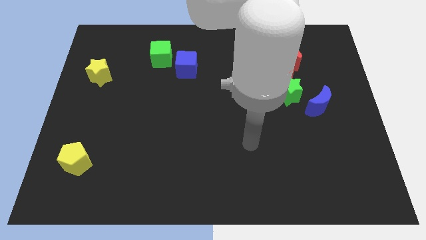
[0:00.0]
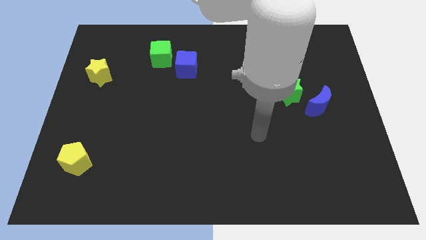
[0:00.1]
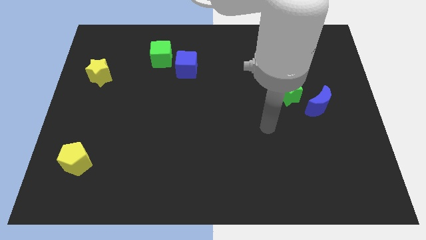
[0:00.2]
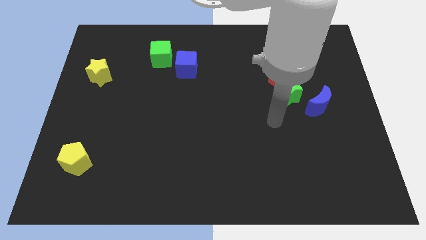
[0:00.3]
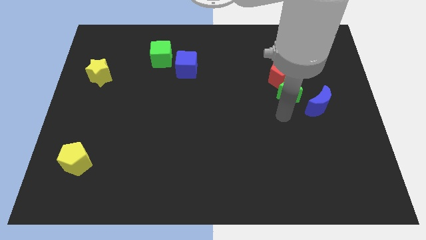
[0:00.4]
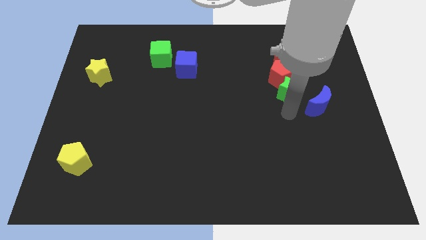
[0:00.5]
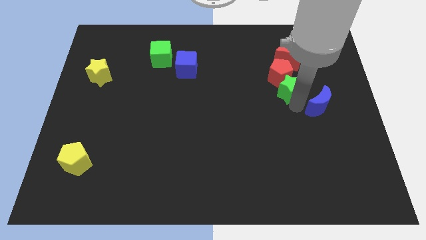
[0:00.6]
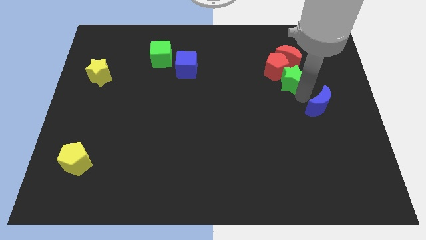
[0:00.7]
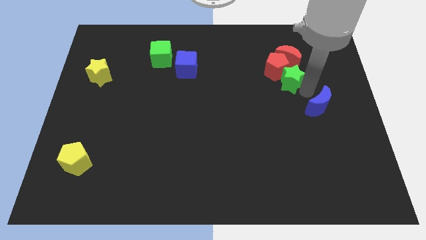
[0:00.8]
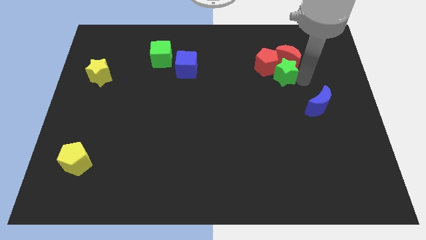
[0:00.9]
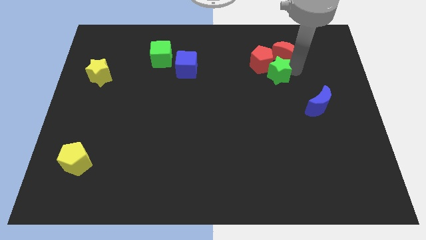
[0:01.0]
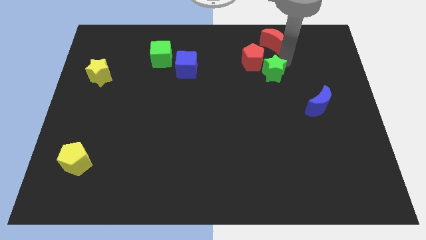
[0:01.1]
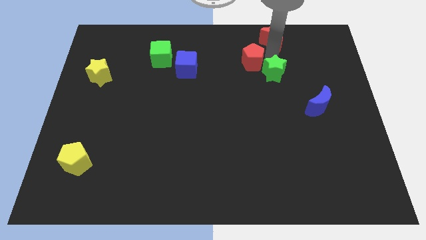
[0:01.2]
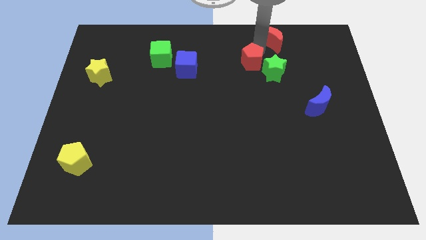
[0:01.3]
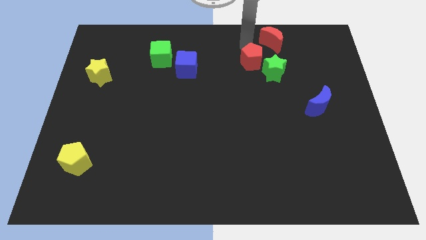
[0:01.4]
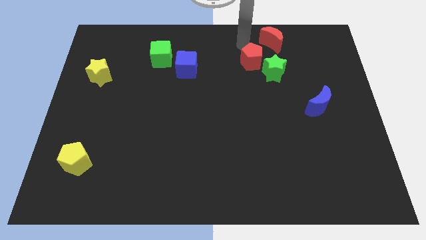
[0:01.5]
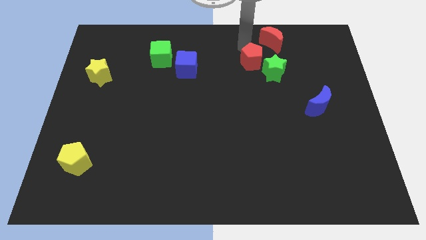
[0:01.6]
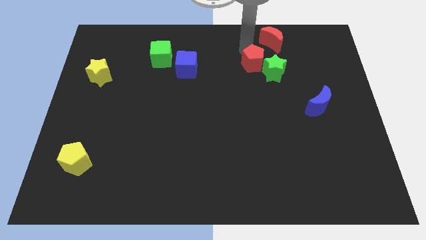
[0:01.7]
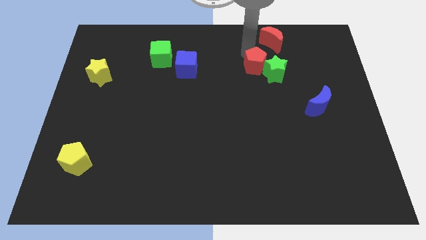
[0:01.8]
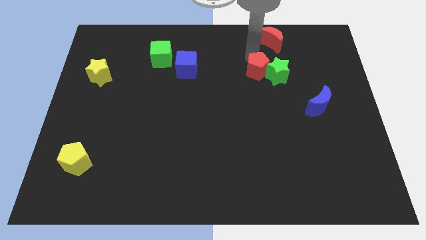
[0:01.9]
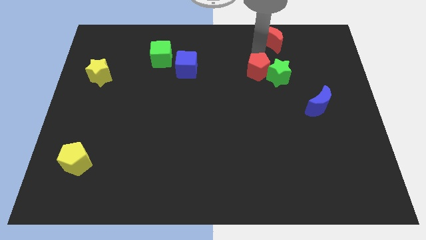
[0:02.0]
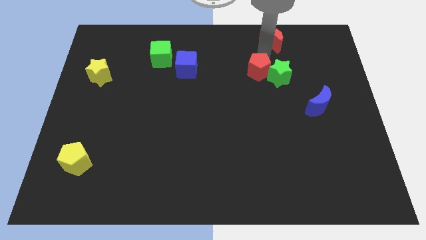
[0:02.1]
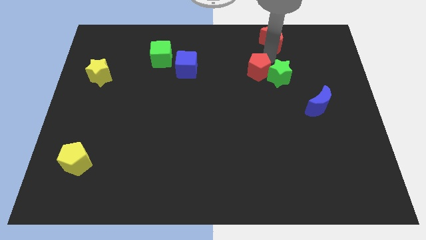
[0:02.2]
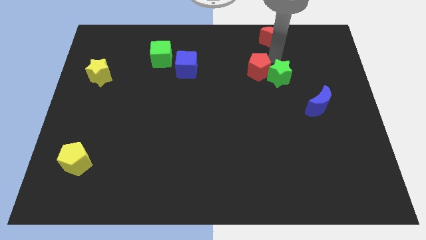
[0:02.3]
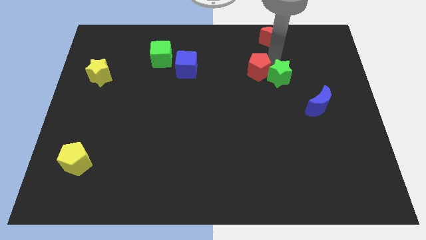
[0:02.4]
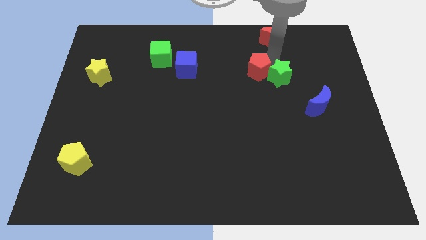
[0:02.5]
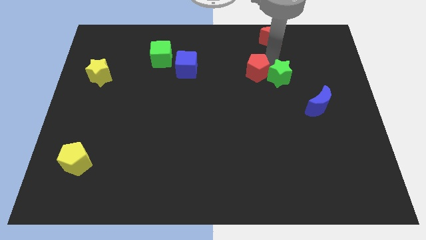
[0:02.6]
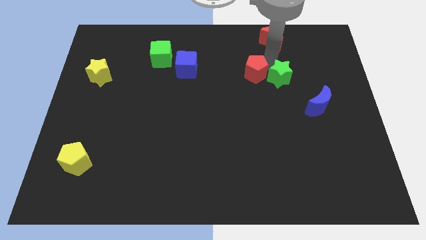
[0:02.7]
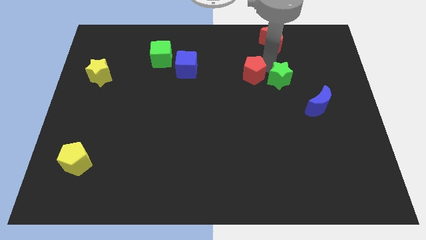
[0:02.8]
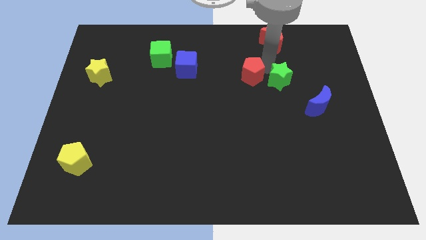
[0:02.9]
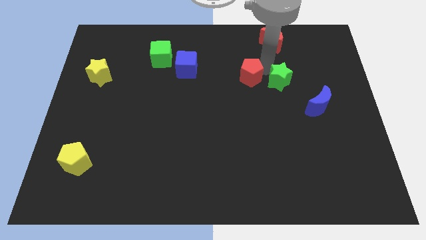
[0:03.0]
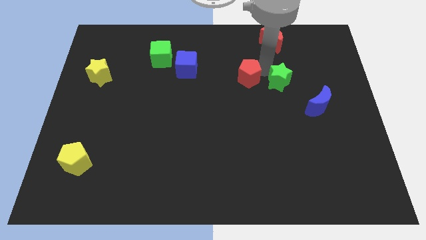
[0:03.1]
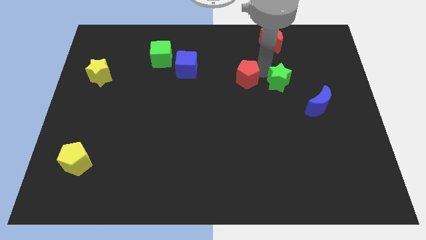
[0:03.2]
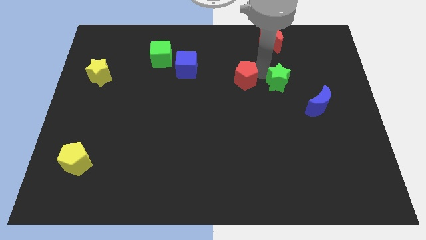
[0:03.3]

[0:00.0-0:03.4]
separate the red pentagon from the green star and red moon

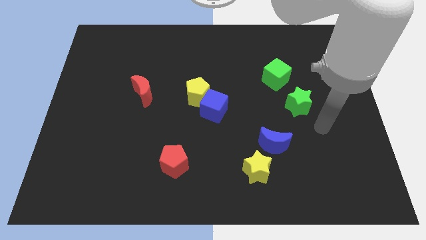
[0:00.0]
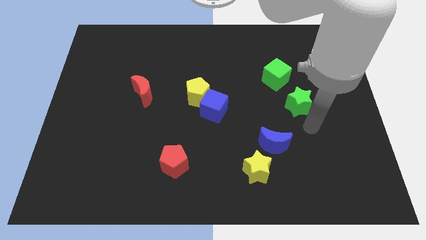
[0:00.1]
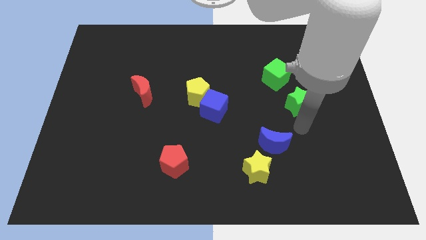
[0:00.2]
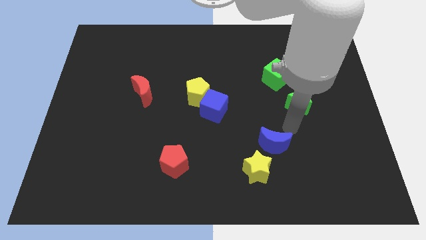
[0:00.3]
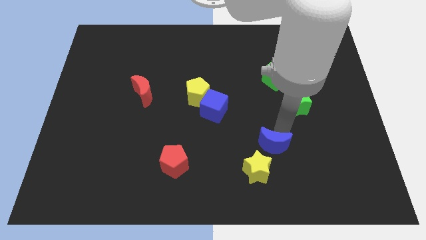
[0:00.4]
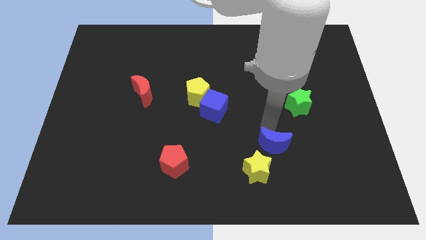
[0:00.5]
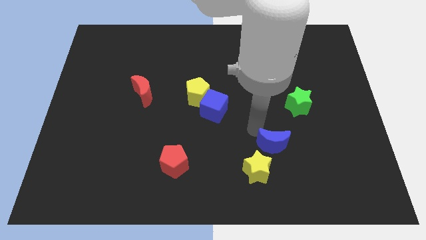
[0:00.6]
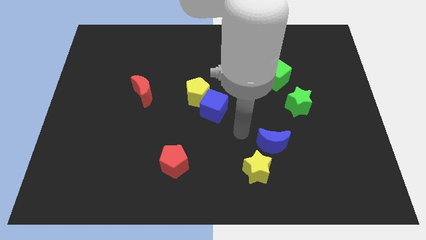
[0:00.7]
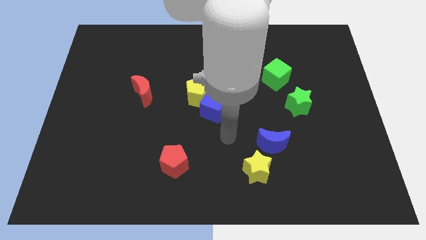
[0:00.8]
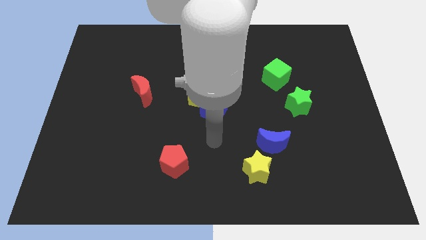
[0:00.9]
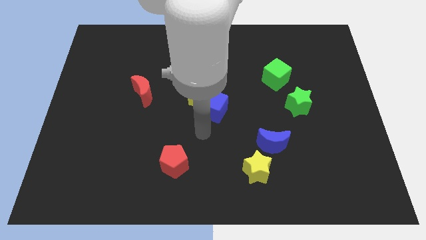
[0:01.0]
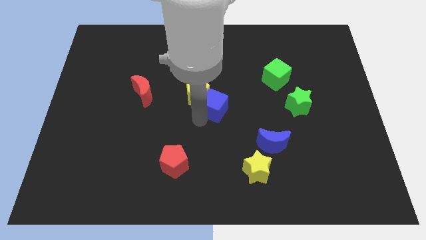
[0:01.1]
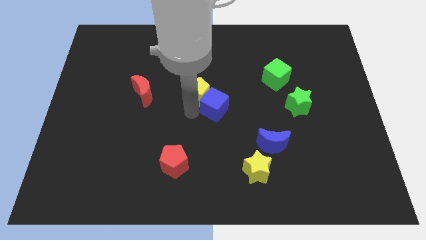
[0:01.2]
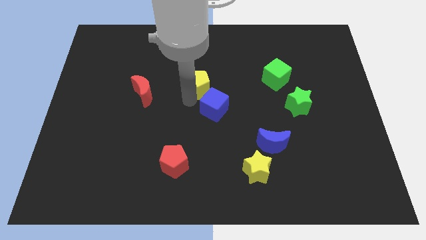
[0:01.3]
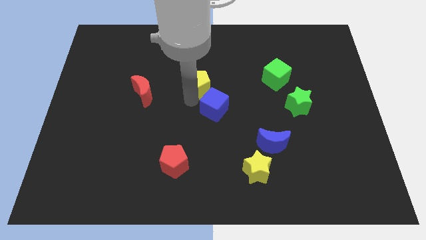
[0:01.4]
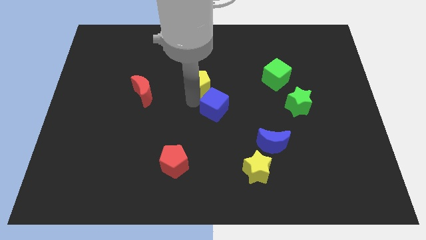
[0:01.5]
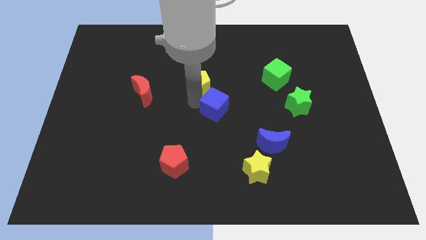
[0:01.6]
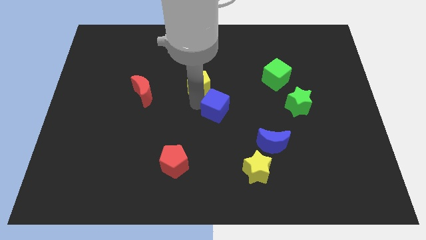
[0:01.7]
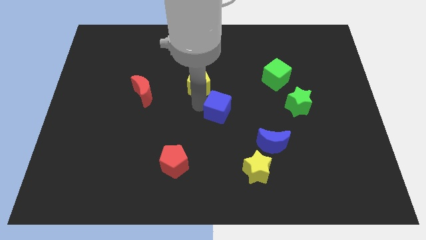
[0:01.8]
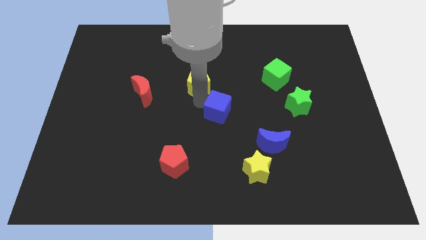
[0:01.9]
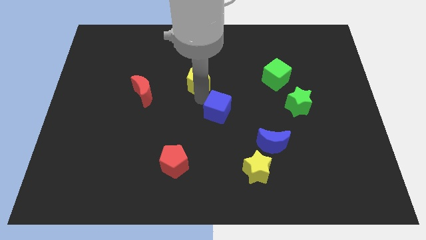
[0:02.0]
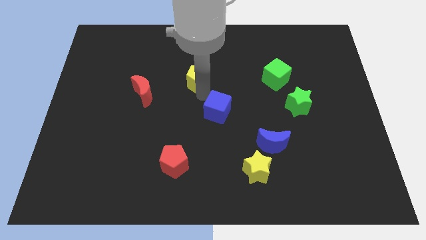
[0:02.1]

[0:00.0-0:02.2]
separate the blue cube from the yellow pentagon

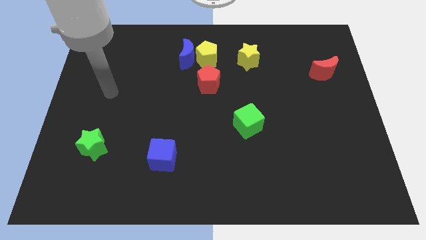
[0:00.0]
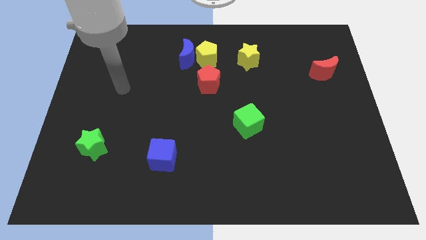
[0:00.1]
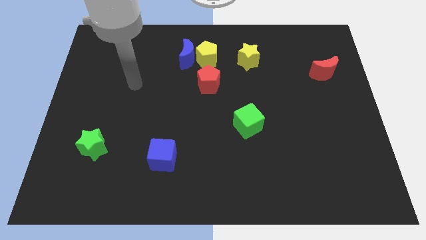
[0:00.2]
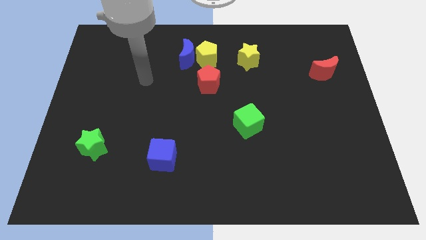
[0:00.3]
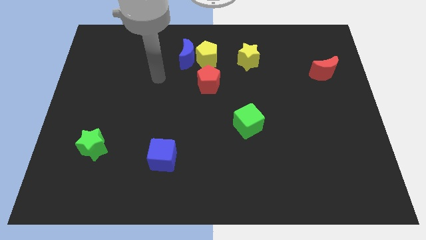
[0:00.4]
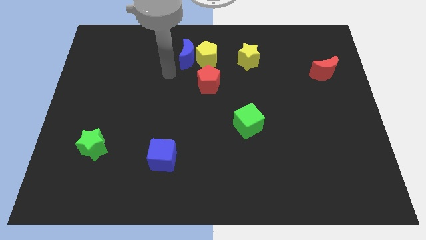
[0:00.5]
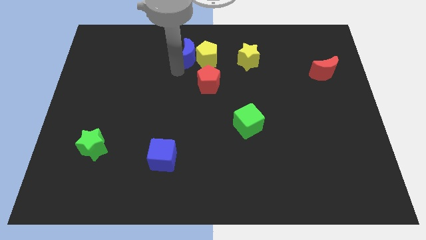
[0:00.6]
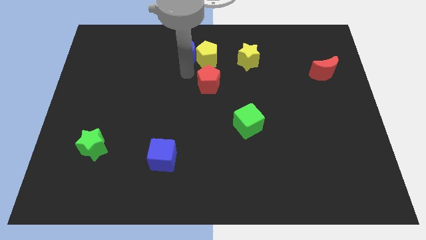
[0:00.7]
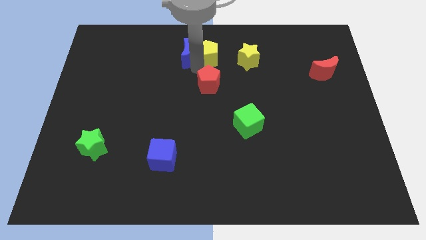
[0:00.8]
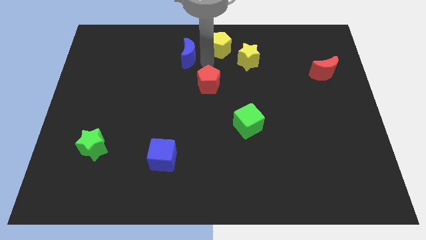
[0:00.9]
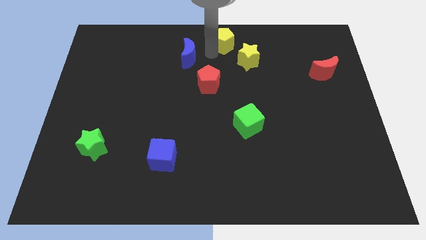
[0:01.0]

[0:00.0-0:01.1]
move the blue moon away from the yellow pentagon

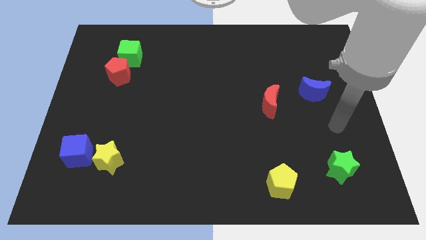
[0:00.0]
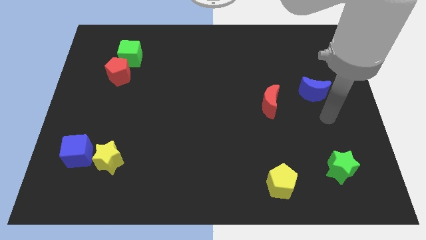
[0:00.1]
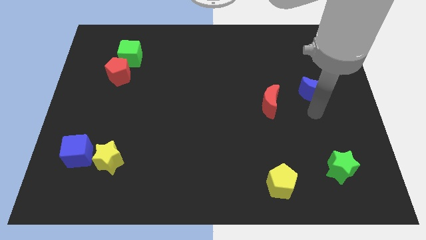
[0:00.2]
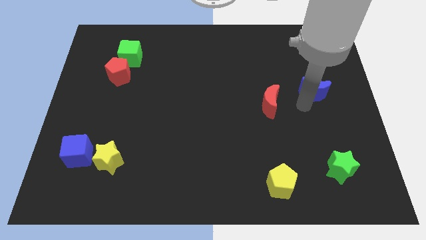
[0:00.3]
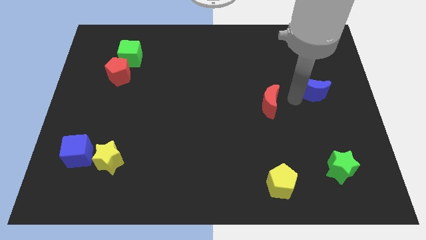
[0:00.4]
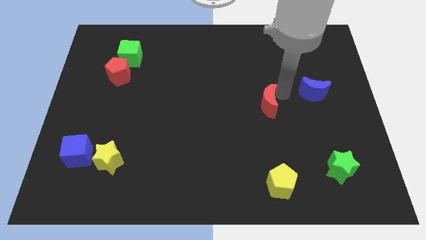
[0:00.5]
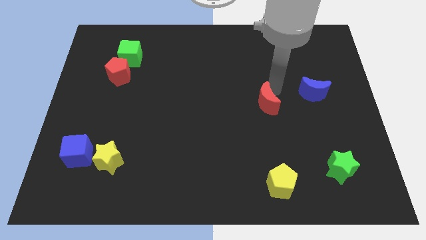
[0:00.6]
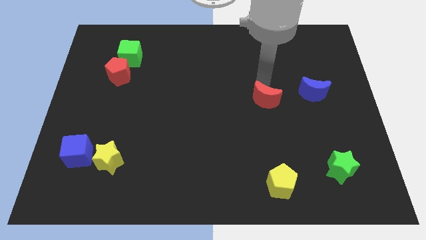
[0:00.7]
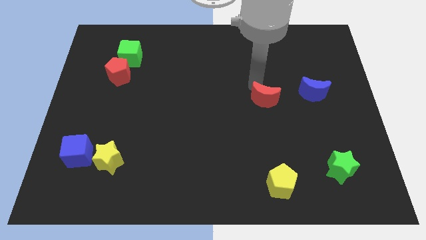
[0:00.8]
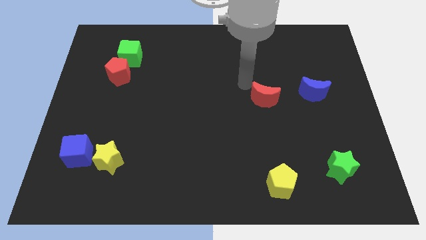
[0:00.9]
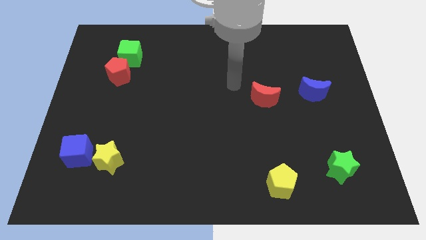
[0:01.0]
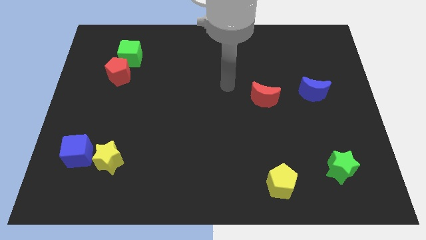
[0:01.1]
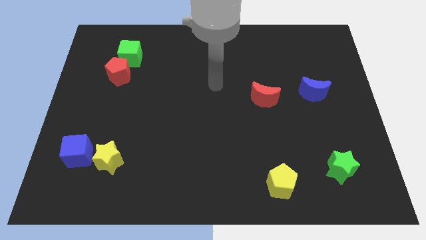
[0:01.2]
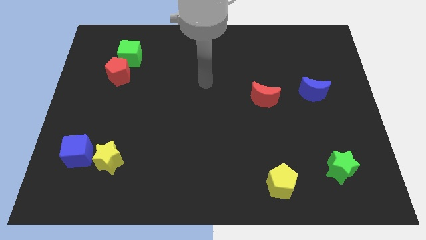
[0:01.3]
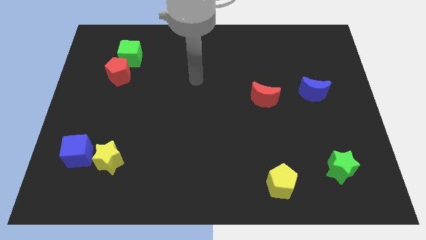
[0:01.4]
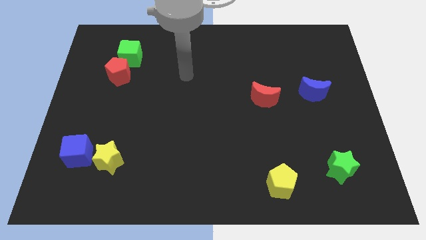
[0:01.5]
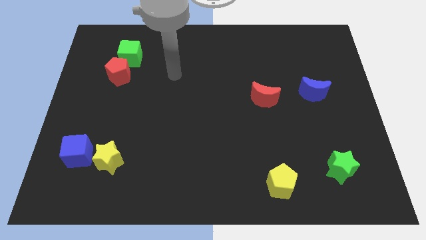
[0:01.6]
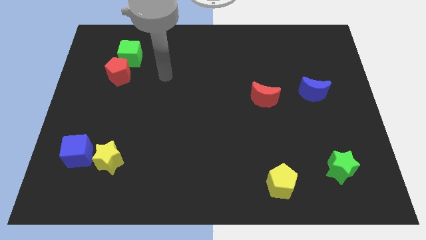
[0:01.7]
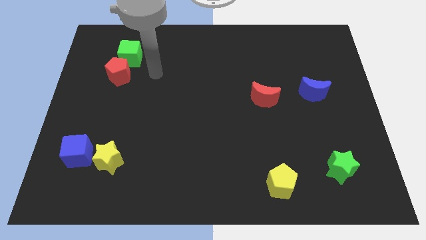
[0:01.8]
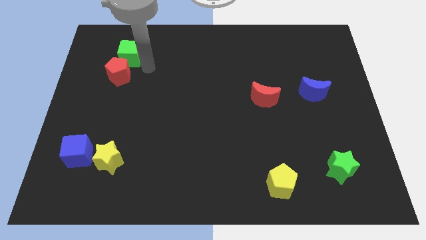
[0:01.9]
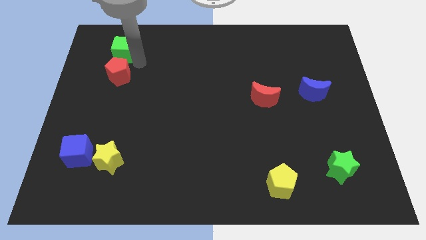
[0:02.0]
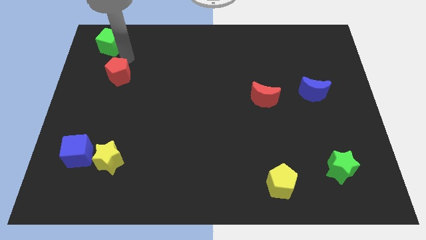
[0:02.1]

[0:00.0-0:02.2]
move the red pentagon away from the green cube

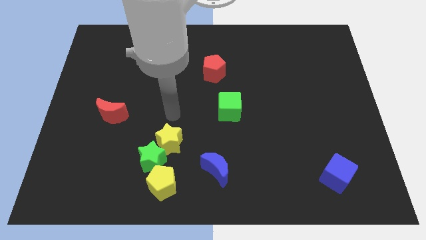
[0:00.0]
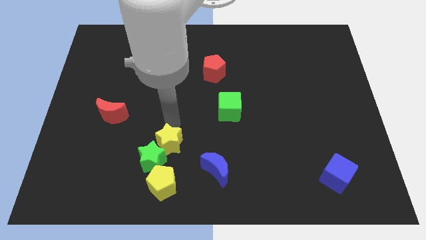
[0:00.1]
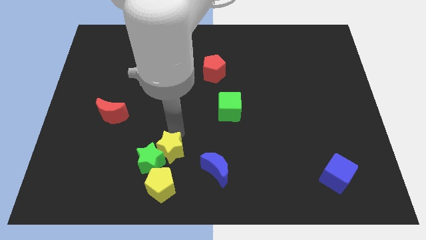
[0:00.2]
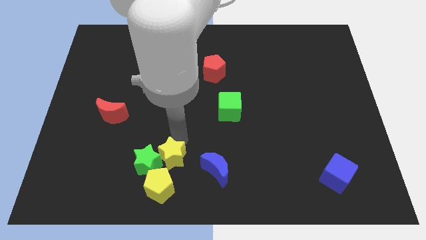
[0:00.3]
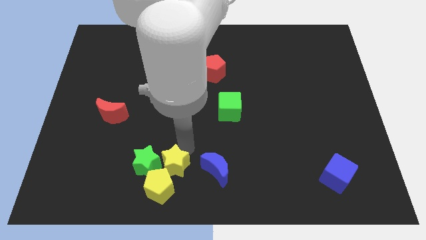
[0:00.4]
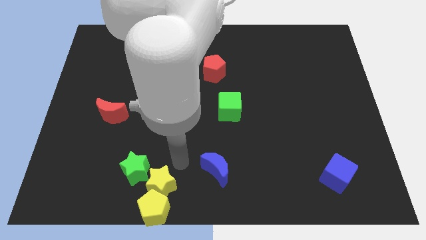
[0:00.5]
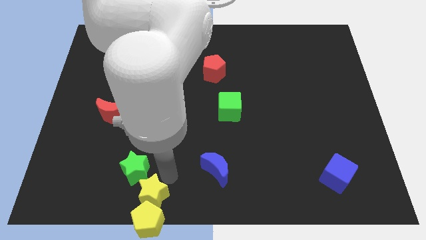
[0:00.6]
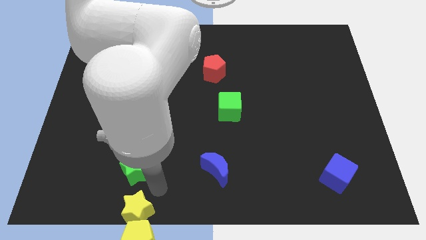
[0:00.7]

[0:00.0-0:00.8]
pull the green star apart from the yellow star and yellow pentagon
